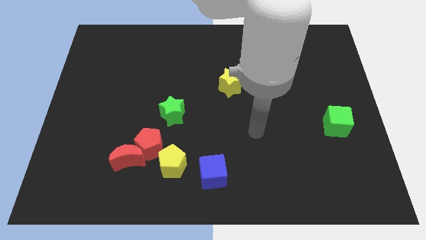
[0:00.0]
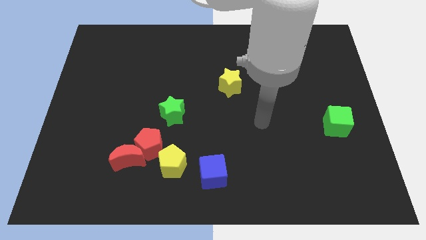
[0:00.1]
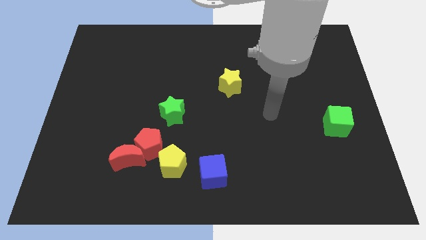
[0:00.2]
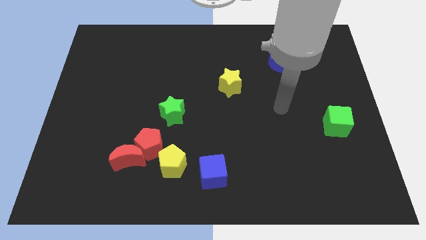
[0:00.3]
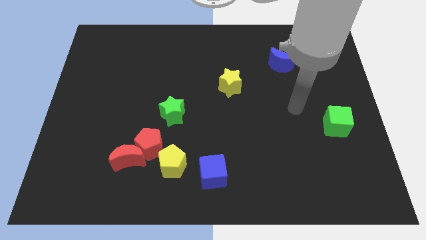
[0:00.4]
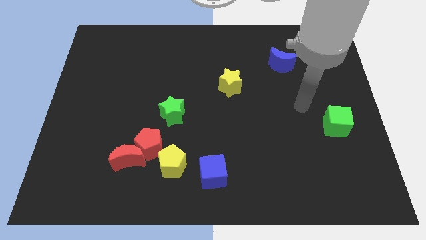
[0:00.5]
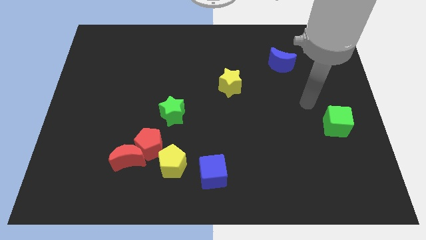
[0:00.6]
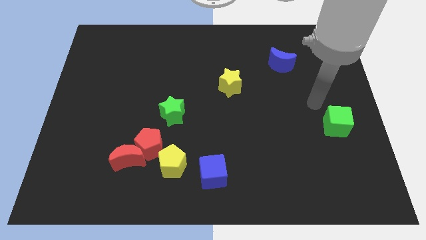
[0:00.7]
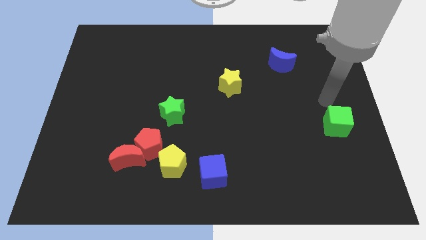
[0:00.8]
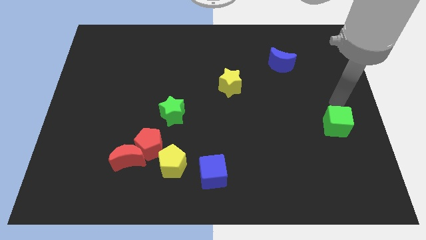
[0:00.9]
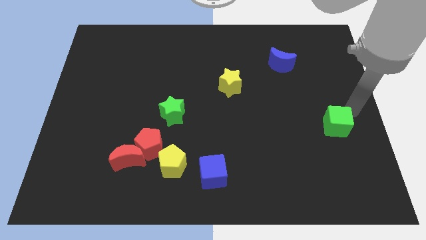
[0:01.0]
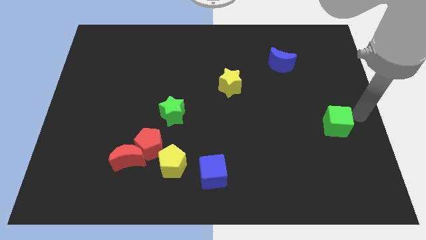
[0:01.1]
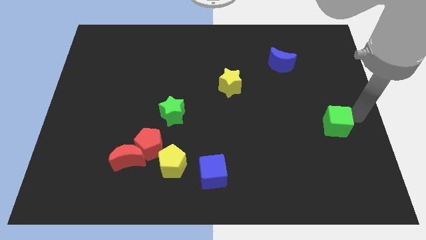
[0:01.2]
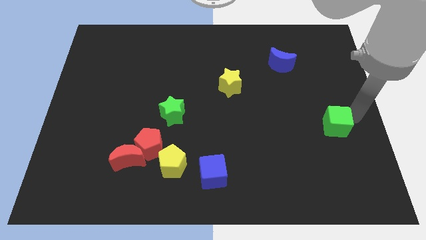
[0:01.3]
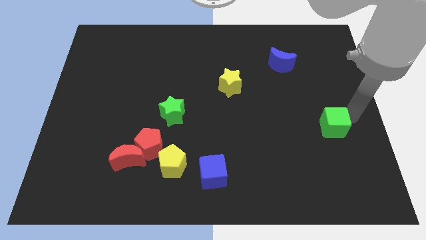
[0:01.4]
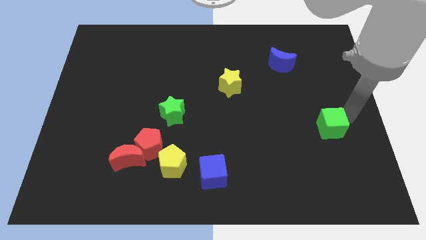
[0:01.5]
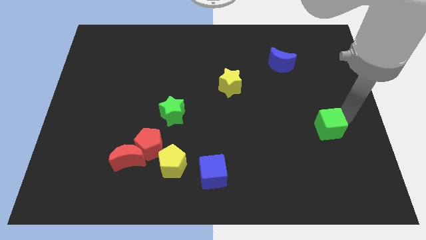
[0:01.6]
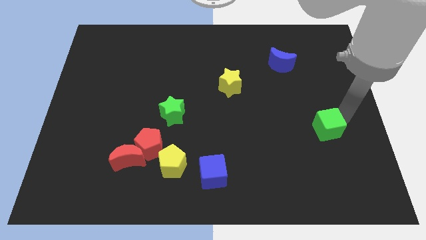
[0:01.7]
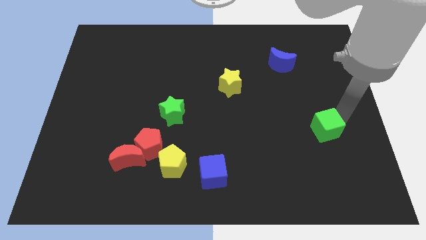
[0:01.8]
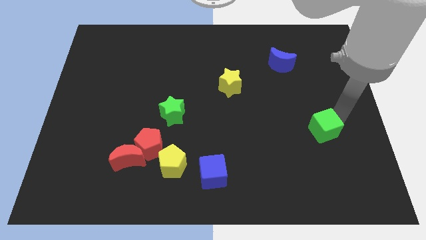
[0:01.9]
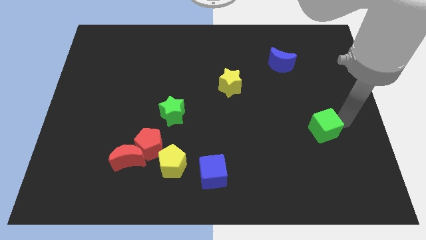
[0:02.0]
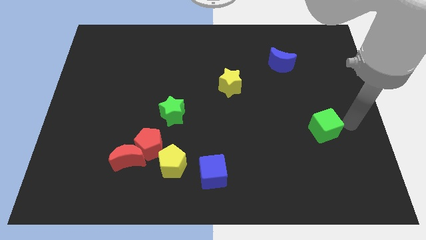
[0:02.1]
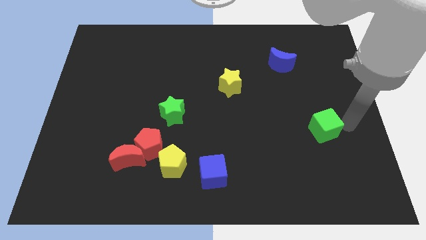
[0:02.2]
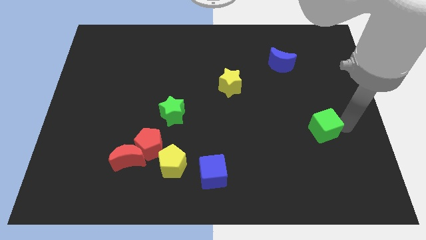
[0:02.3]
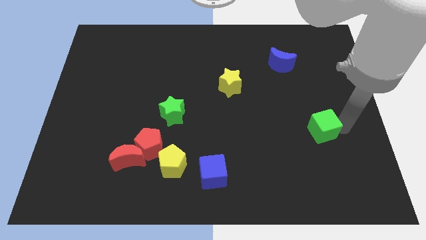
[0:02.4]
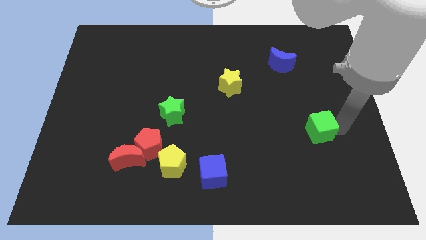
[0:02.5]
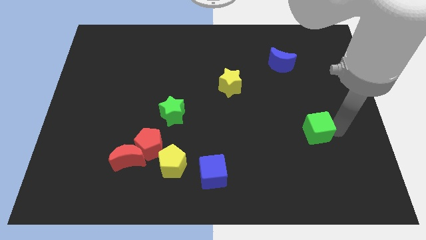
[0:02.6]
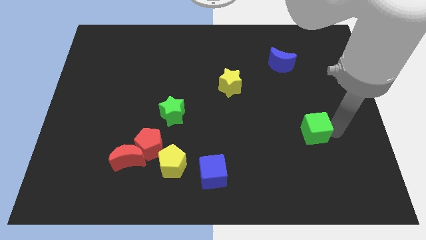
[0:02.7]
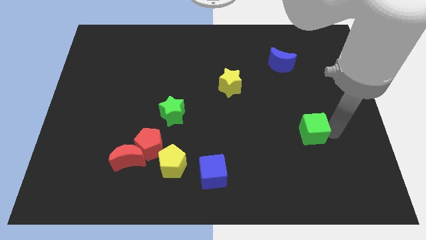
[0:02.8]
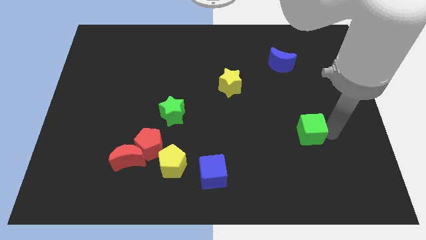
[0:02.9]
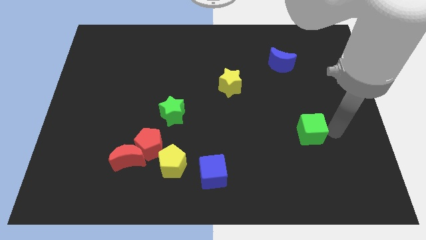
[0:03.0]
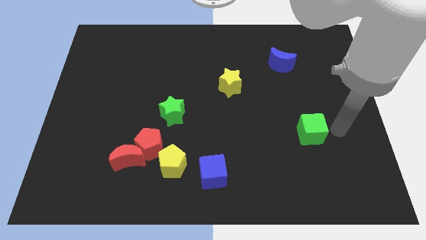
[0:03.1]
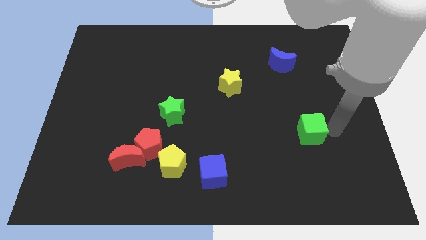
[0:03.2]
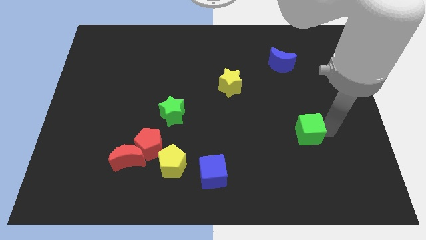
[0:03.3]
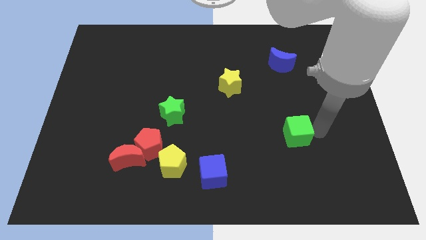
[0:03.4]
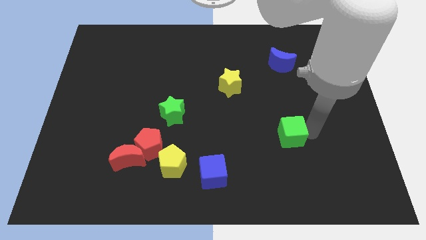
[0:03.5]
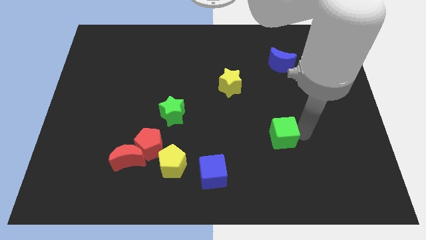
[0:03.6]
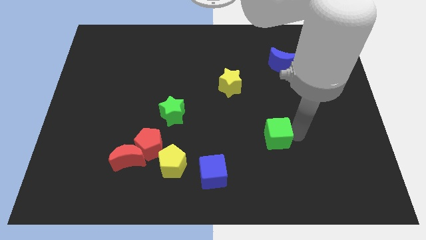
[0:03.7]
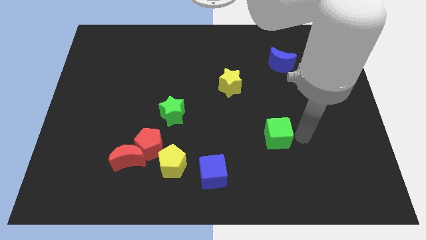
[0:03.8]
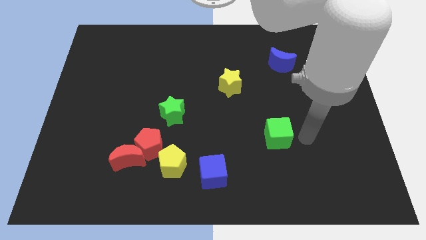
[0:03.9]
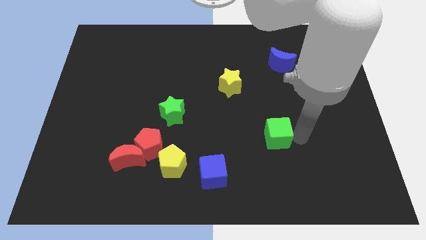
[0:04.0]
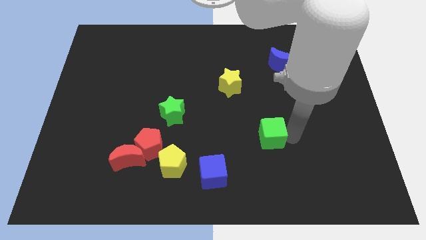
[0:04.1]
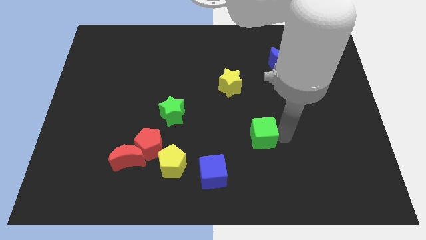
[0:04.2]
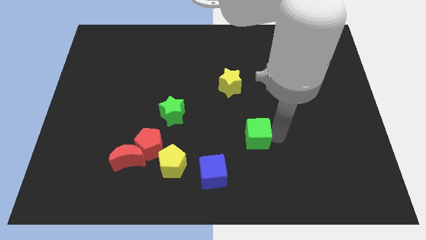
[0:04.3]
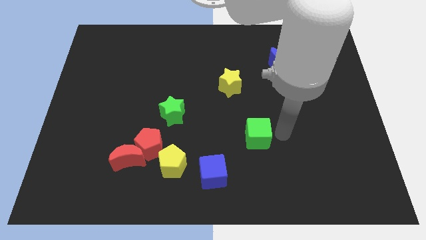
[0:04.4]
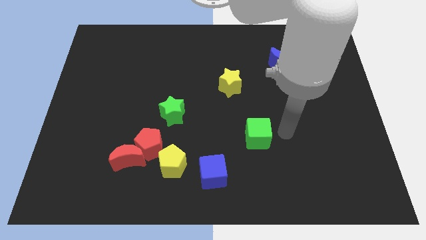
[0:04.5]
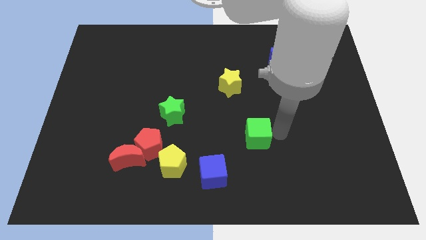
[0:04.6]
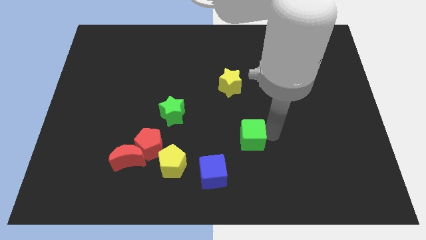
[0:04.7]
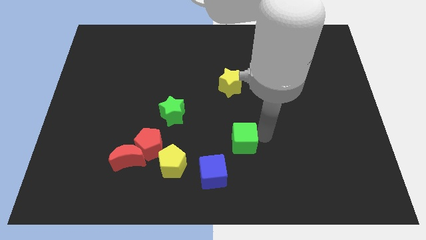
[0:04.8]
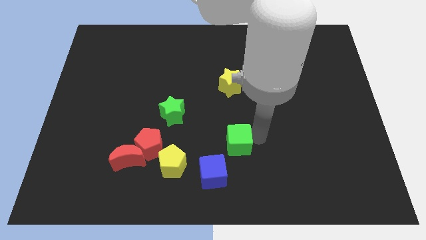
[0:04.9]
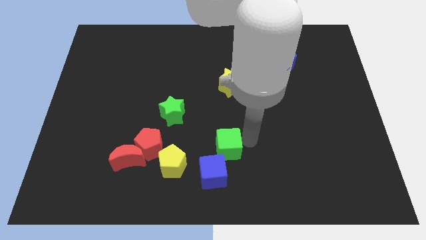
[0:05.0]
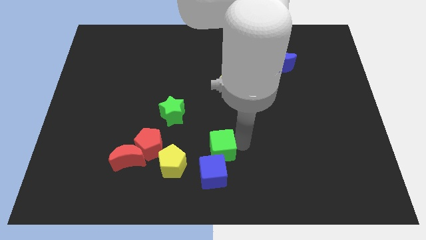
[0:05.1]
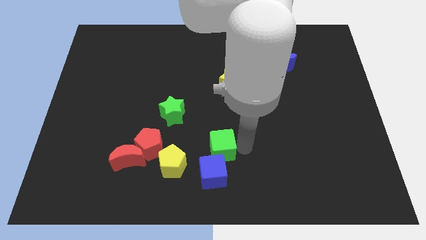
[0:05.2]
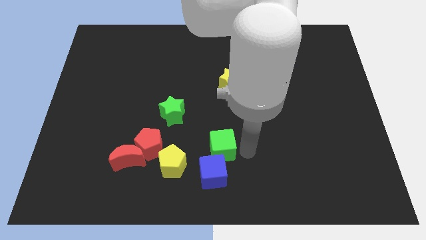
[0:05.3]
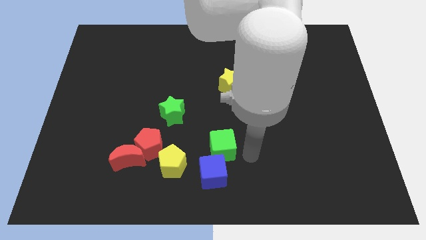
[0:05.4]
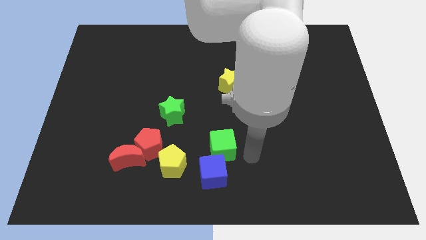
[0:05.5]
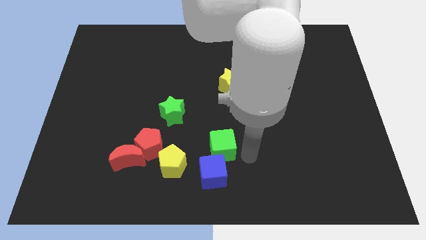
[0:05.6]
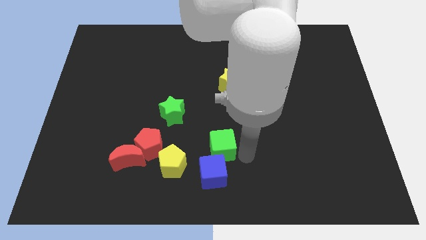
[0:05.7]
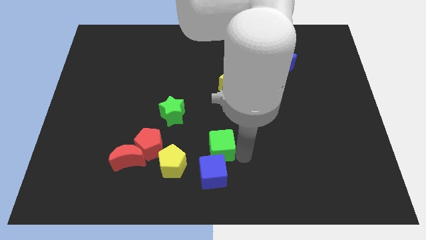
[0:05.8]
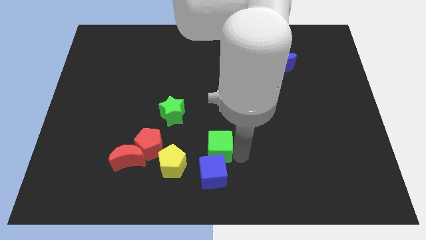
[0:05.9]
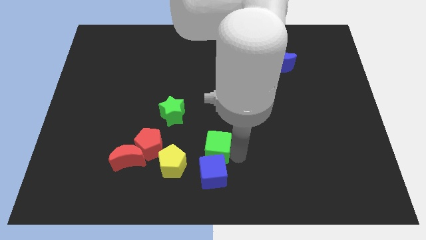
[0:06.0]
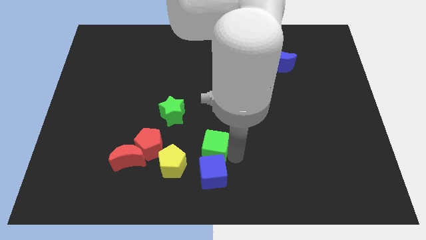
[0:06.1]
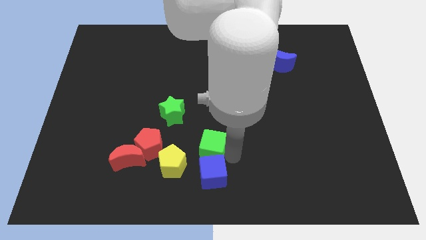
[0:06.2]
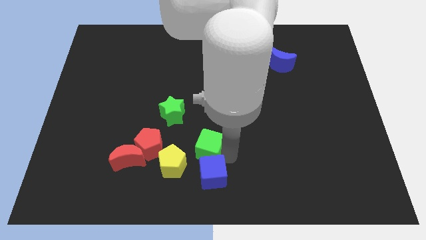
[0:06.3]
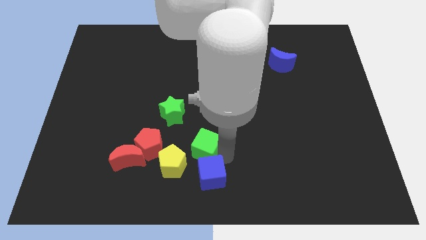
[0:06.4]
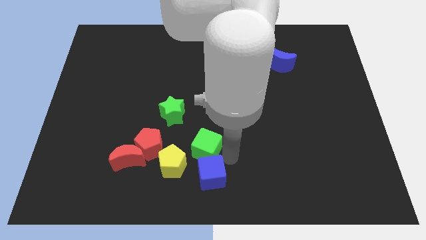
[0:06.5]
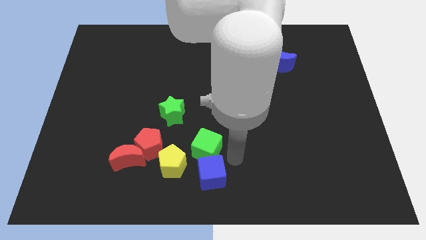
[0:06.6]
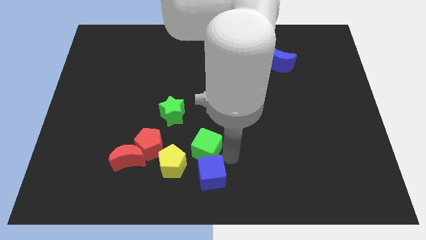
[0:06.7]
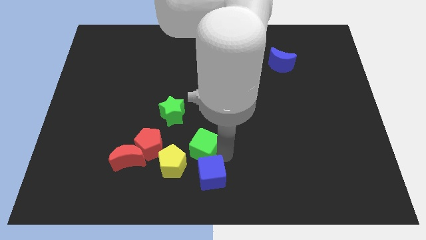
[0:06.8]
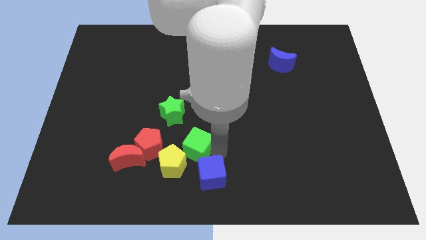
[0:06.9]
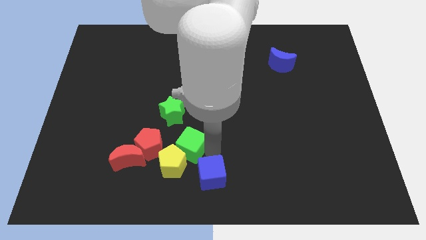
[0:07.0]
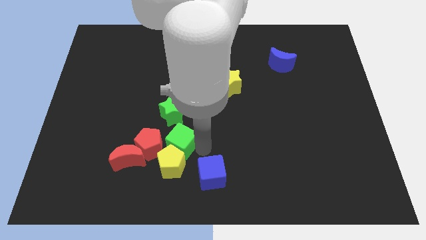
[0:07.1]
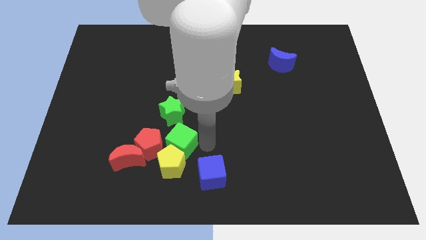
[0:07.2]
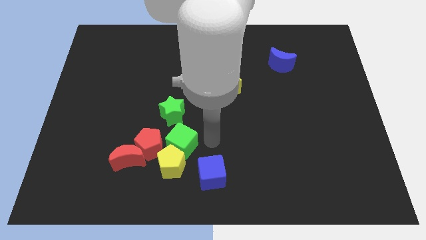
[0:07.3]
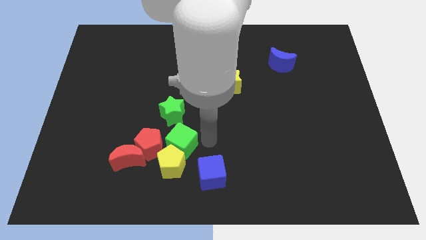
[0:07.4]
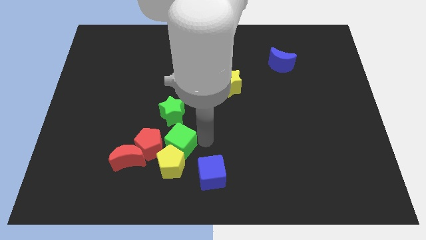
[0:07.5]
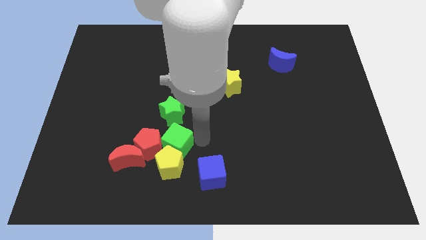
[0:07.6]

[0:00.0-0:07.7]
push the green cube next to the red pentagon
